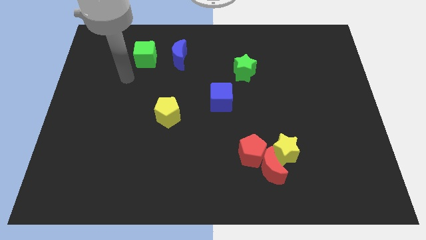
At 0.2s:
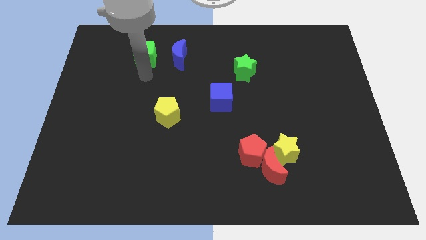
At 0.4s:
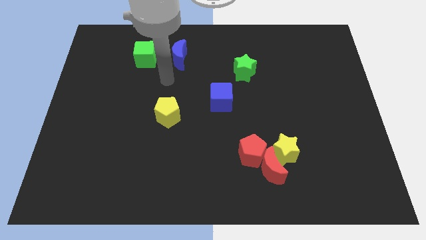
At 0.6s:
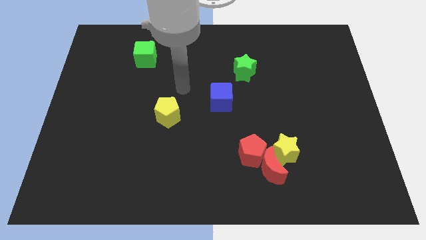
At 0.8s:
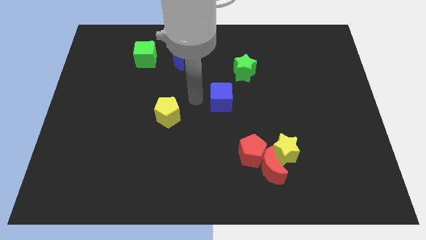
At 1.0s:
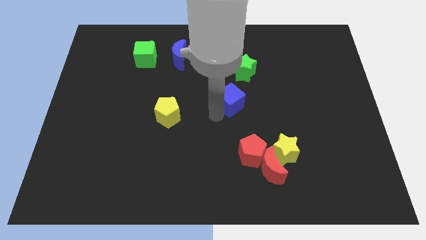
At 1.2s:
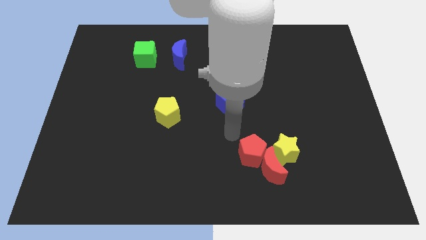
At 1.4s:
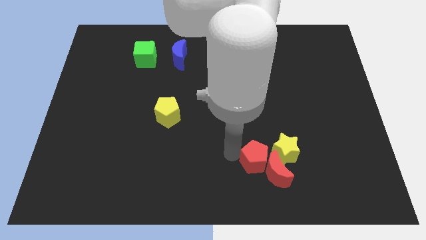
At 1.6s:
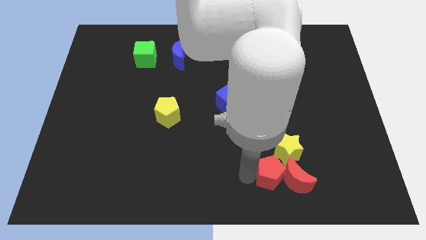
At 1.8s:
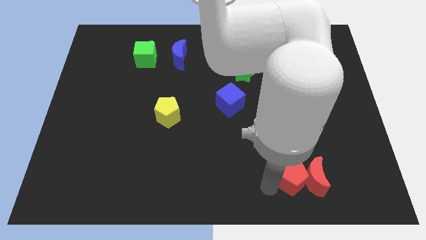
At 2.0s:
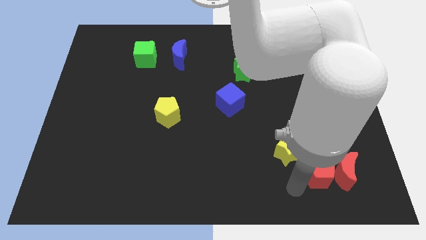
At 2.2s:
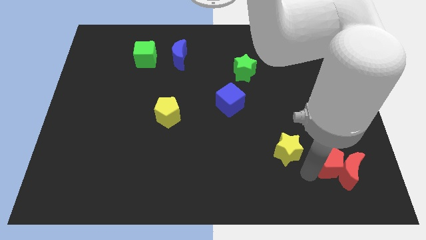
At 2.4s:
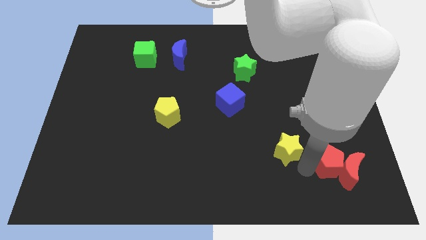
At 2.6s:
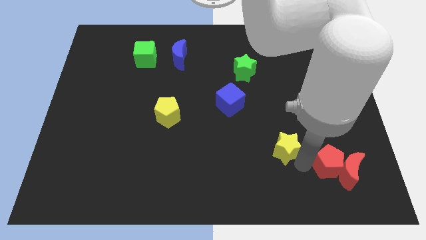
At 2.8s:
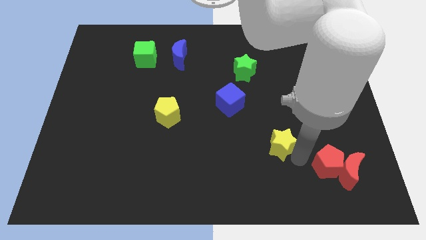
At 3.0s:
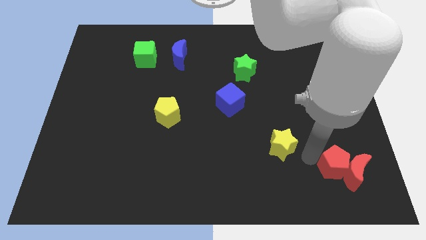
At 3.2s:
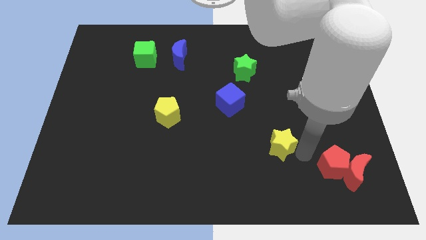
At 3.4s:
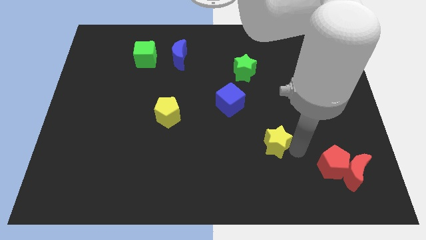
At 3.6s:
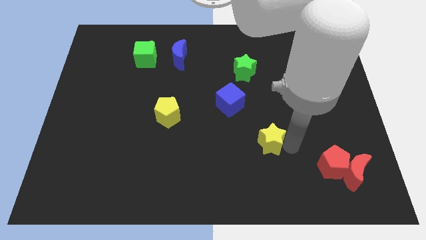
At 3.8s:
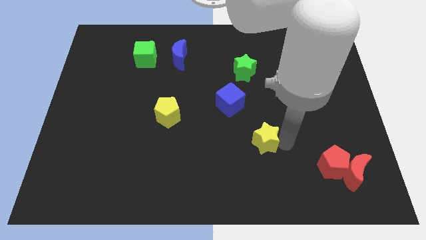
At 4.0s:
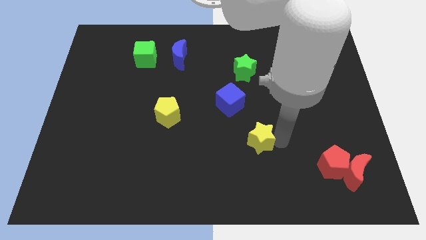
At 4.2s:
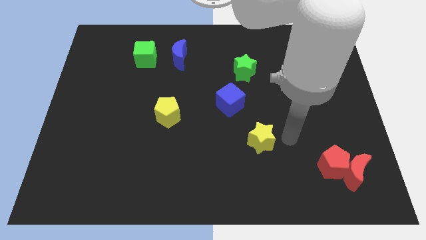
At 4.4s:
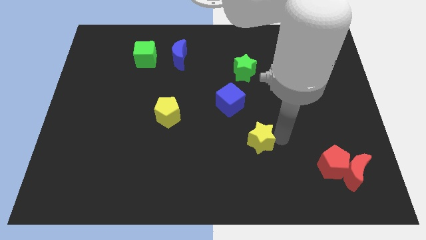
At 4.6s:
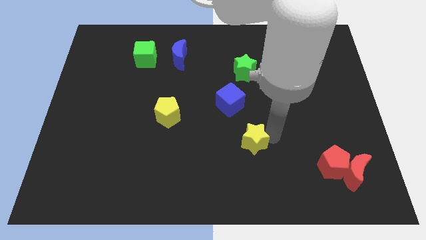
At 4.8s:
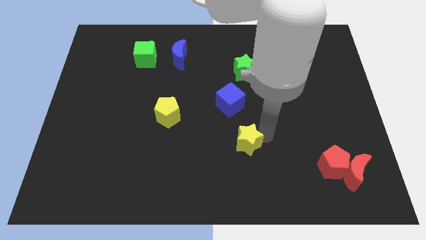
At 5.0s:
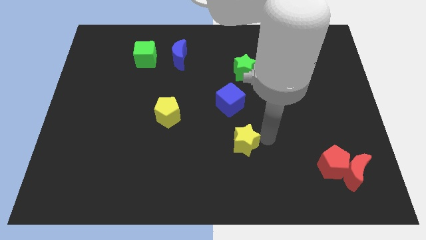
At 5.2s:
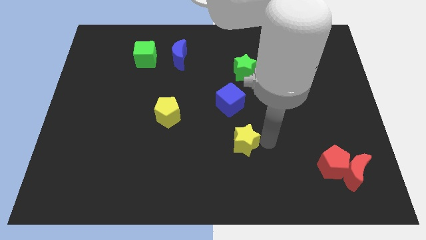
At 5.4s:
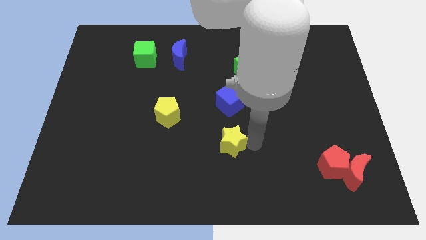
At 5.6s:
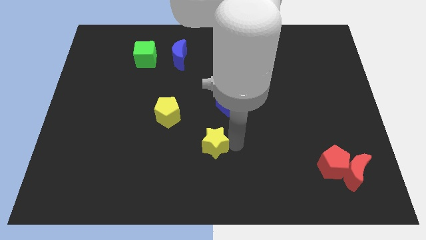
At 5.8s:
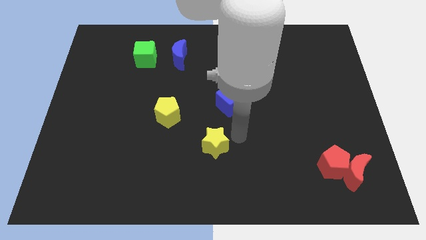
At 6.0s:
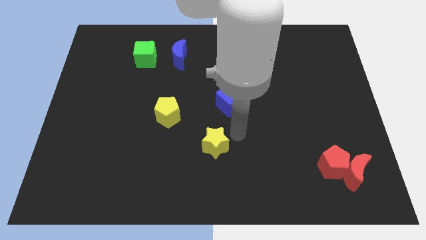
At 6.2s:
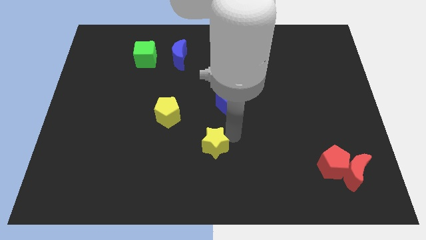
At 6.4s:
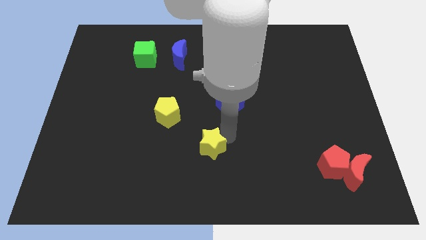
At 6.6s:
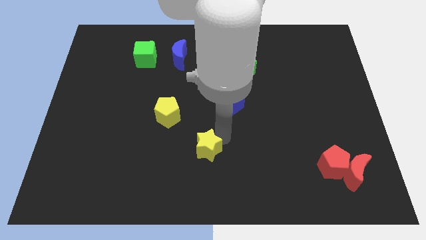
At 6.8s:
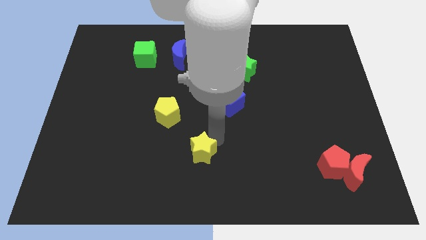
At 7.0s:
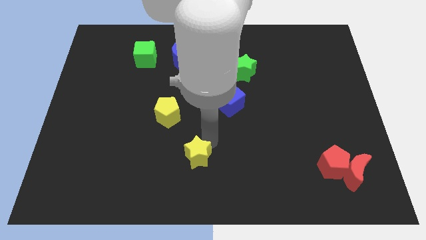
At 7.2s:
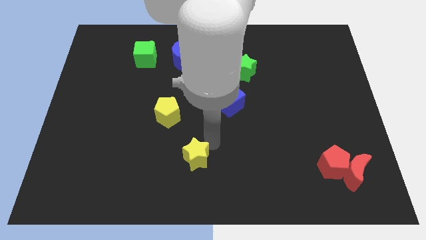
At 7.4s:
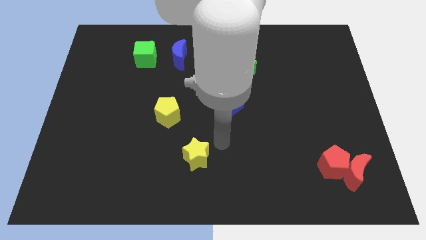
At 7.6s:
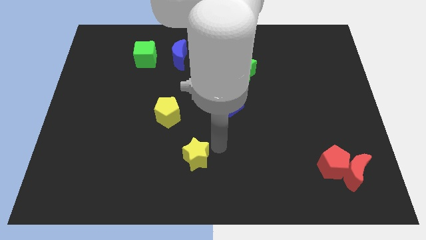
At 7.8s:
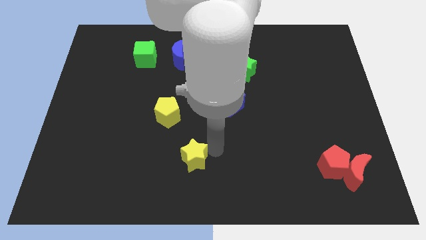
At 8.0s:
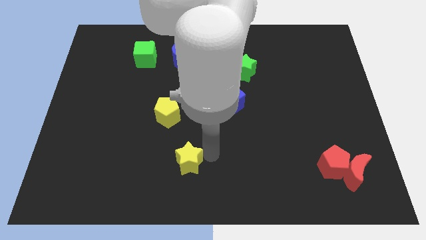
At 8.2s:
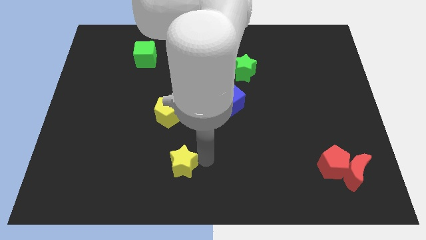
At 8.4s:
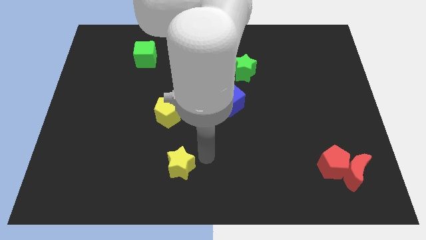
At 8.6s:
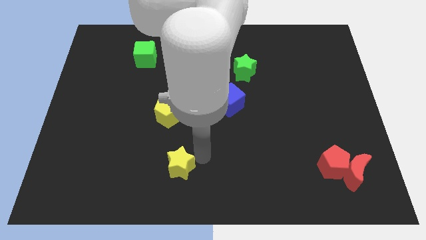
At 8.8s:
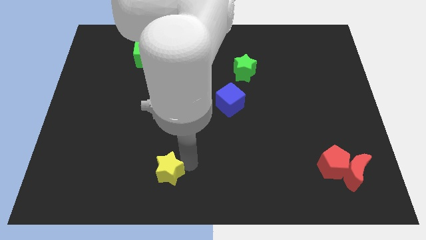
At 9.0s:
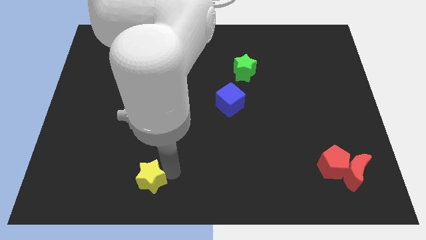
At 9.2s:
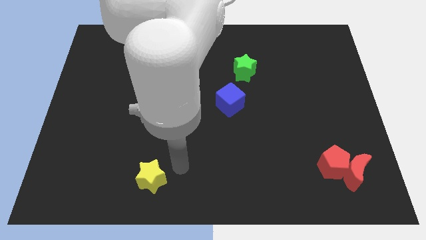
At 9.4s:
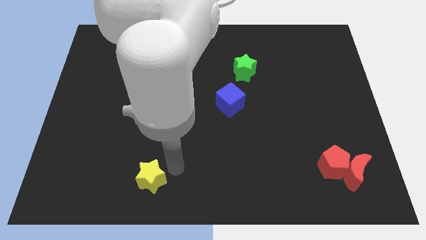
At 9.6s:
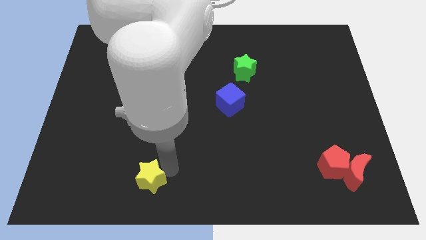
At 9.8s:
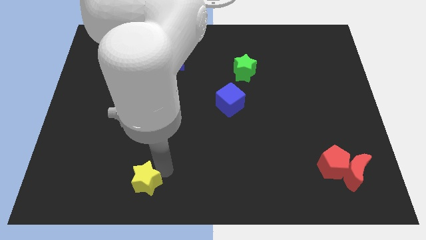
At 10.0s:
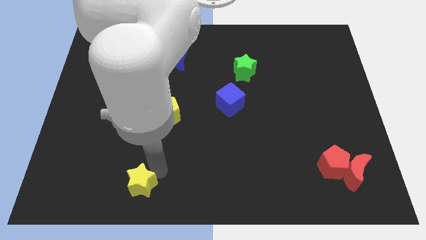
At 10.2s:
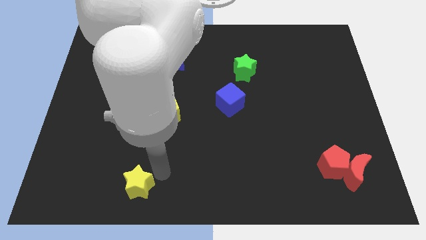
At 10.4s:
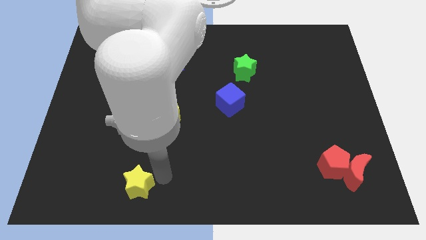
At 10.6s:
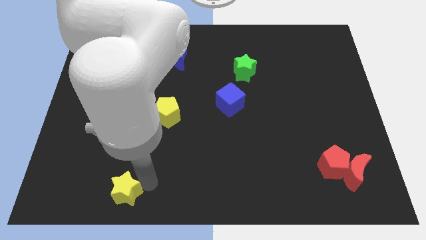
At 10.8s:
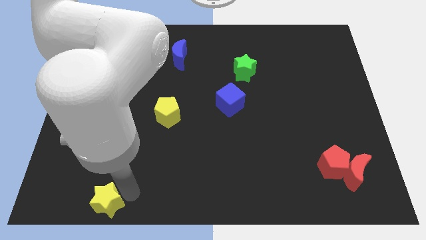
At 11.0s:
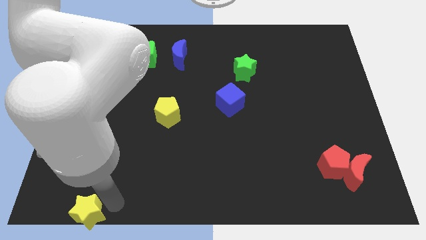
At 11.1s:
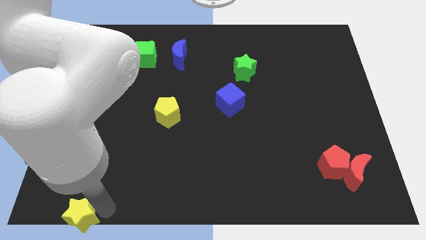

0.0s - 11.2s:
move the yellow star to the bottom left of the board
